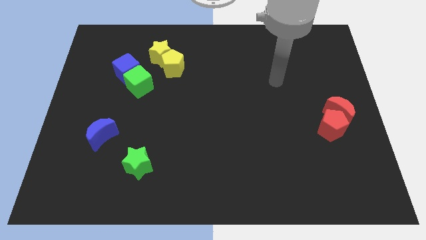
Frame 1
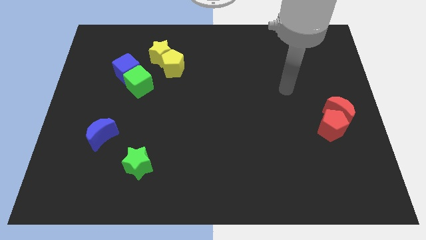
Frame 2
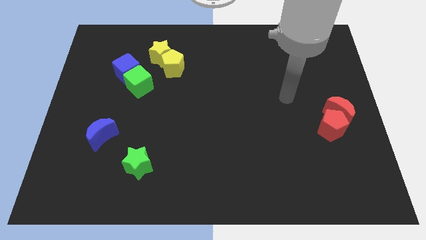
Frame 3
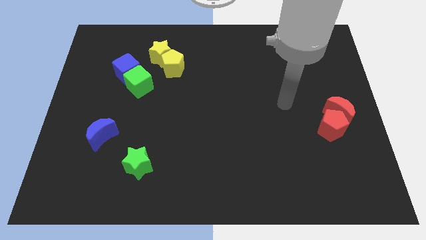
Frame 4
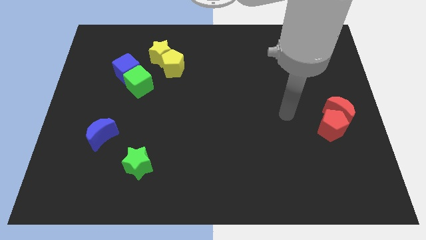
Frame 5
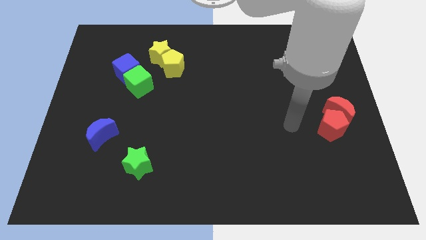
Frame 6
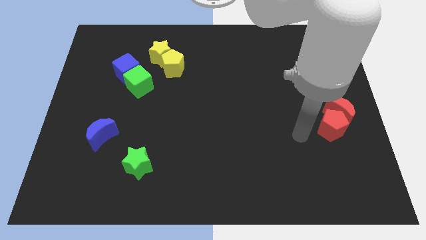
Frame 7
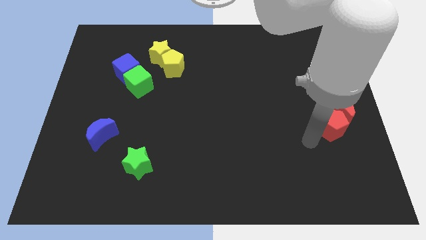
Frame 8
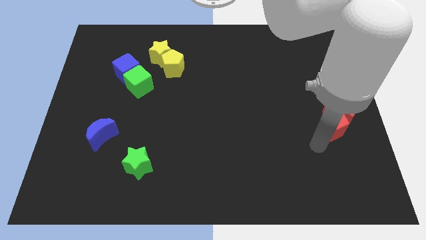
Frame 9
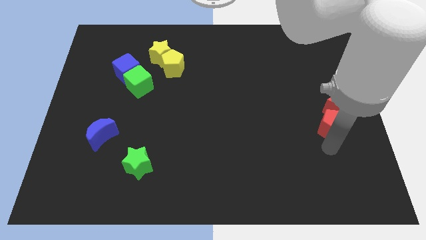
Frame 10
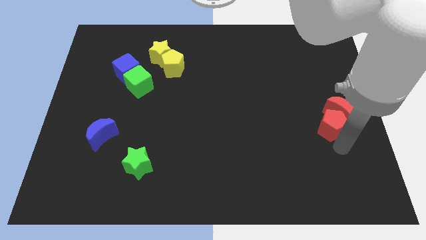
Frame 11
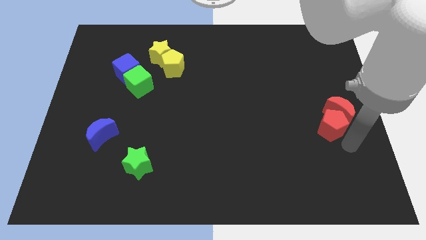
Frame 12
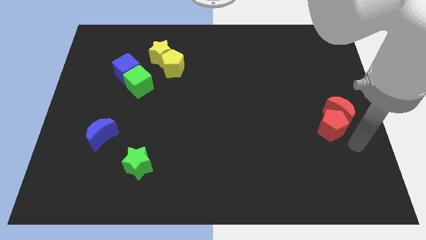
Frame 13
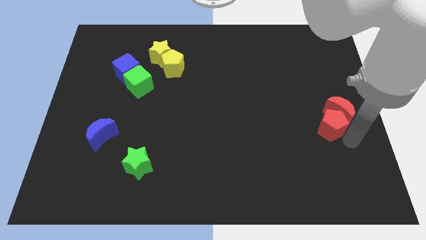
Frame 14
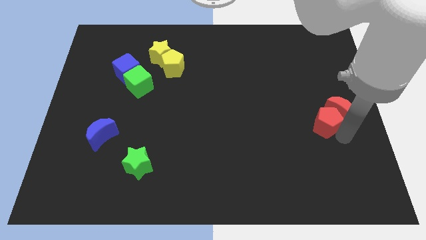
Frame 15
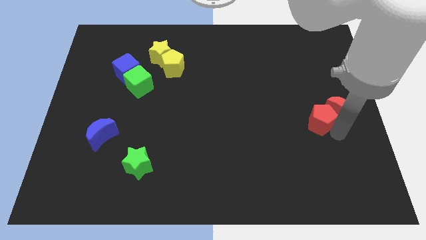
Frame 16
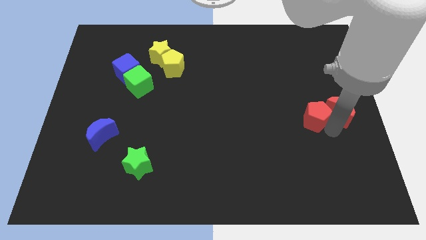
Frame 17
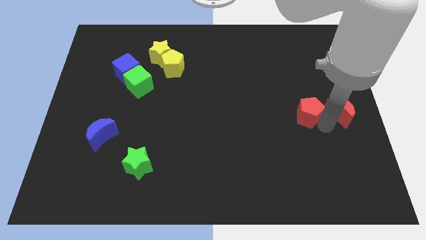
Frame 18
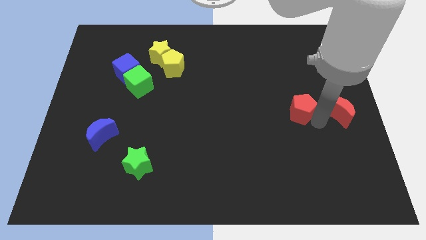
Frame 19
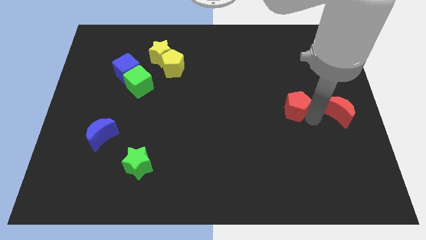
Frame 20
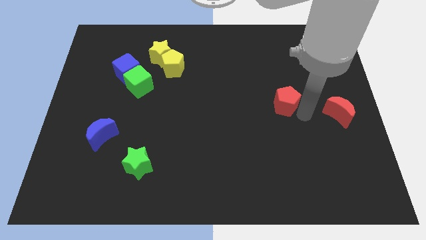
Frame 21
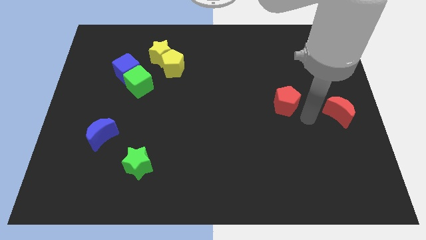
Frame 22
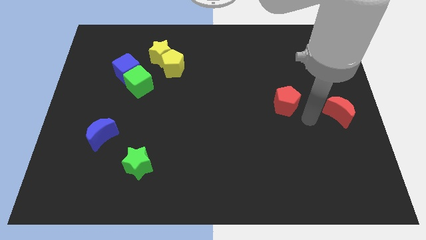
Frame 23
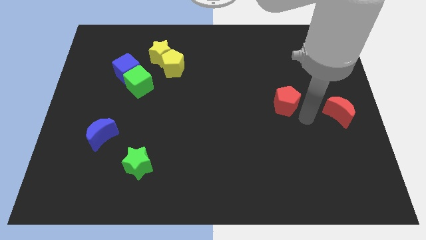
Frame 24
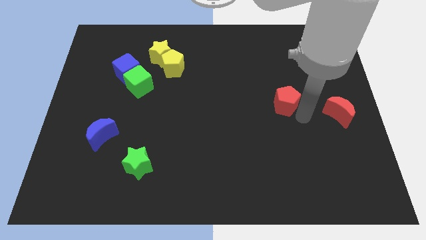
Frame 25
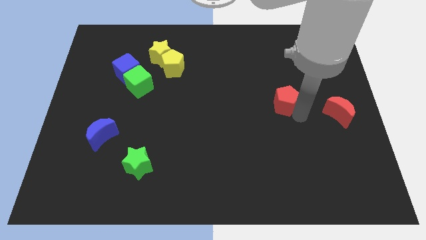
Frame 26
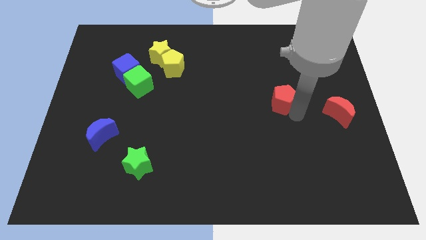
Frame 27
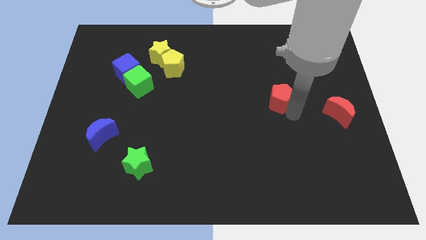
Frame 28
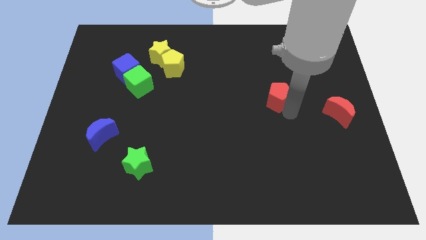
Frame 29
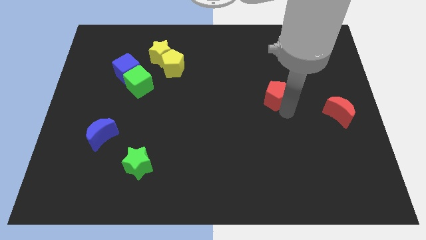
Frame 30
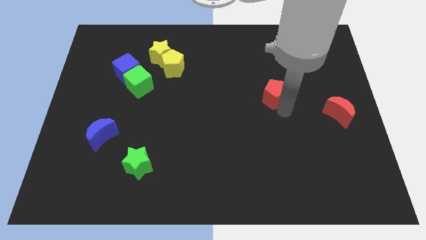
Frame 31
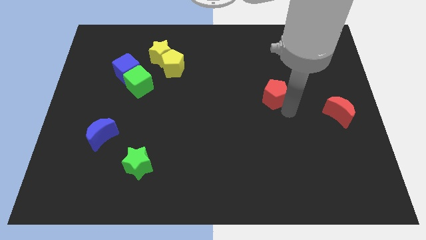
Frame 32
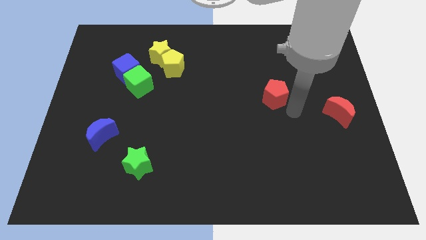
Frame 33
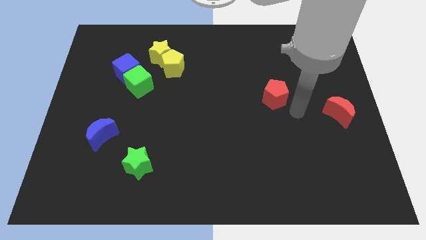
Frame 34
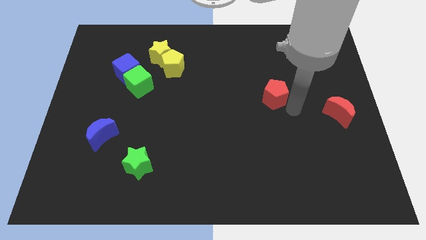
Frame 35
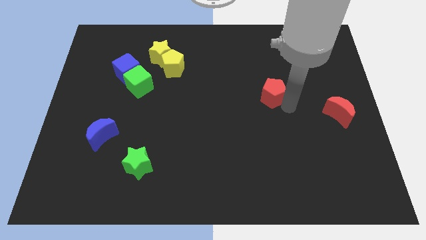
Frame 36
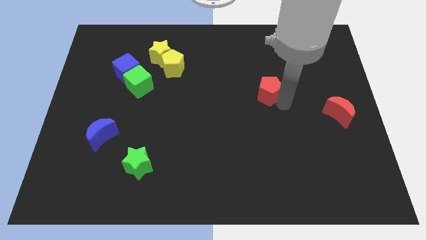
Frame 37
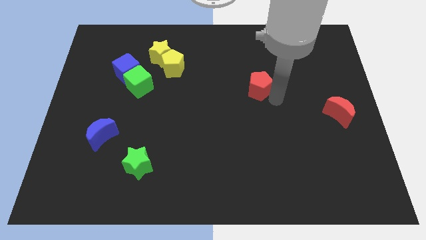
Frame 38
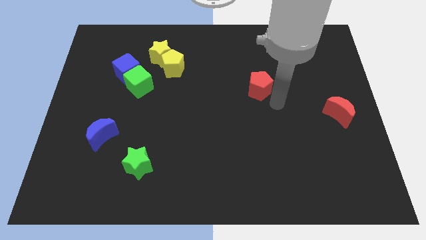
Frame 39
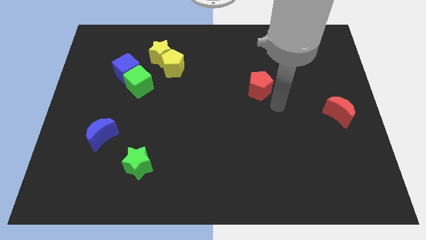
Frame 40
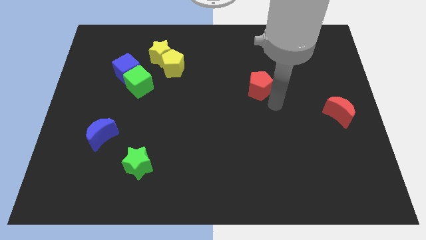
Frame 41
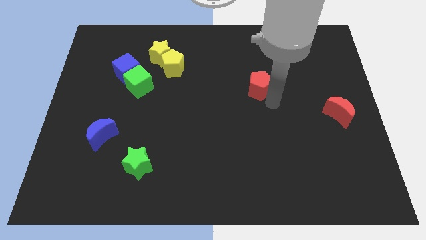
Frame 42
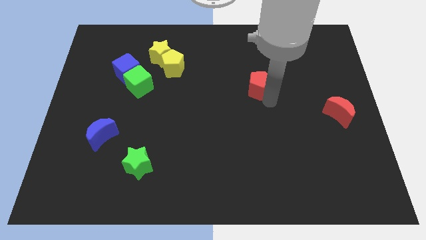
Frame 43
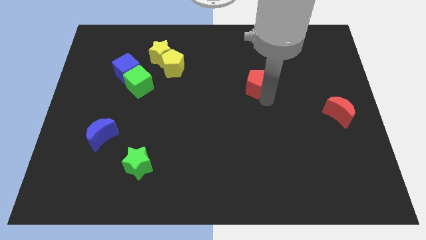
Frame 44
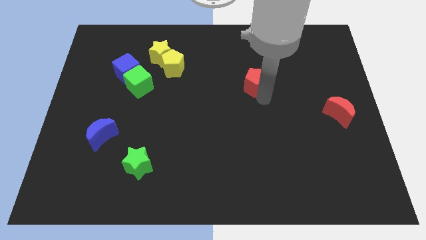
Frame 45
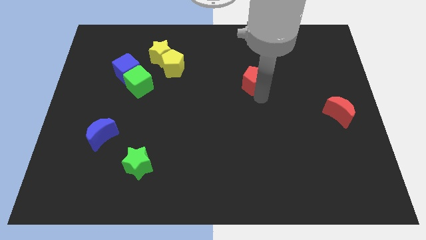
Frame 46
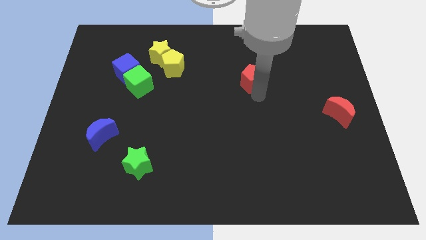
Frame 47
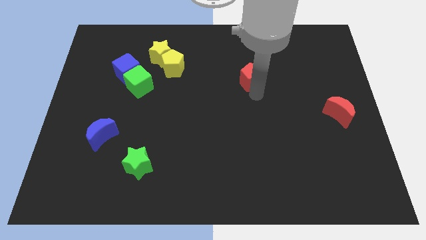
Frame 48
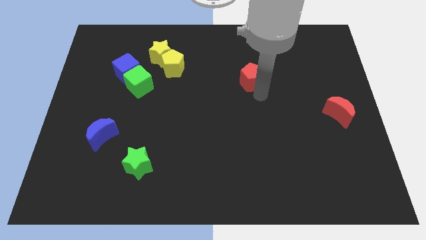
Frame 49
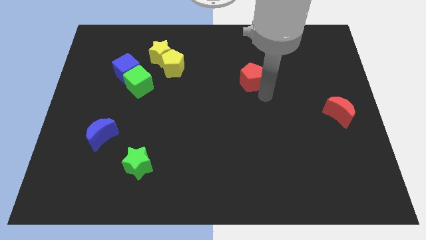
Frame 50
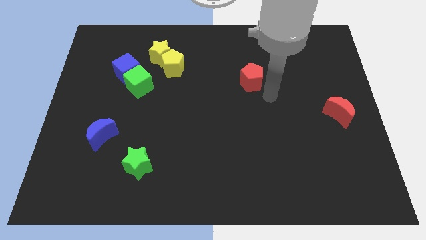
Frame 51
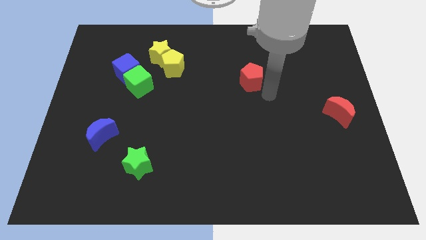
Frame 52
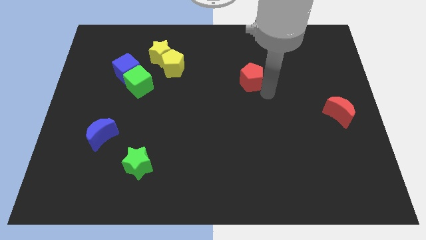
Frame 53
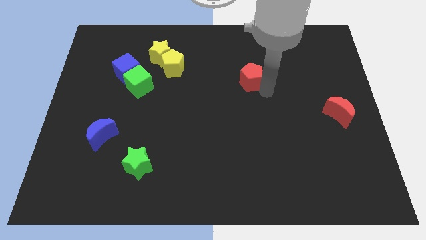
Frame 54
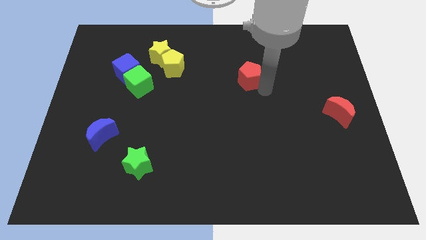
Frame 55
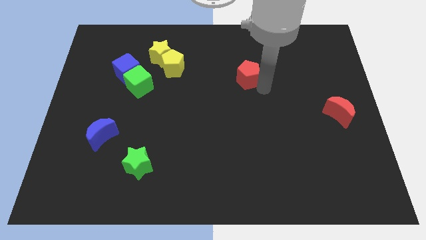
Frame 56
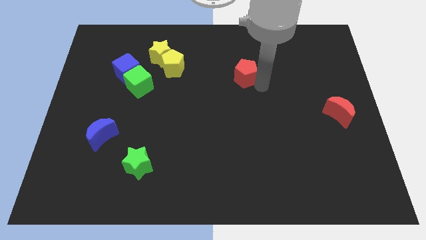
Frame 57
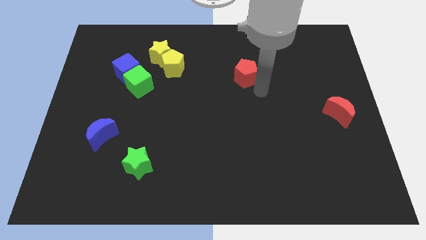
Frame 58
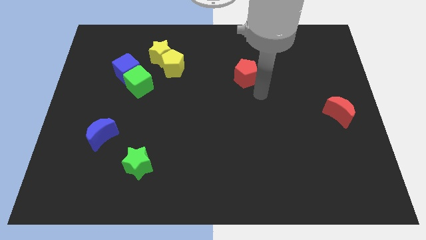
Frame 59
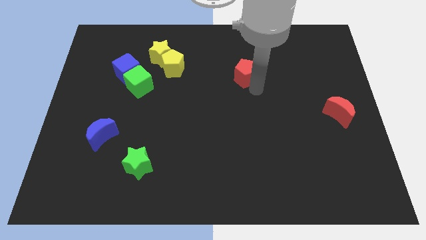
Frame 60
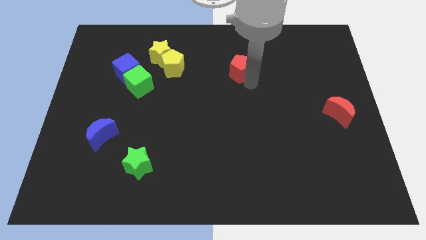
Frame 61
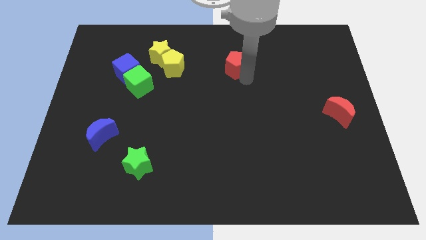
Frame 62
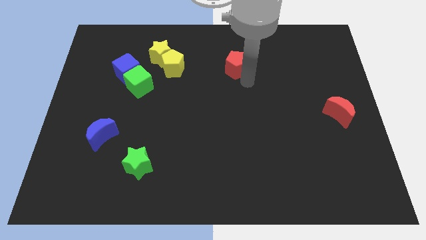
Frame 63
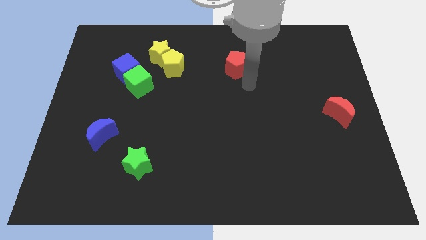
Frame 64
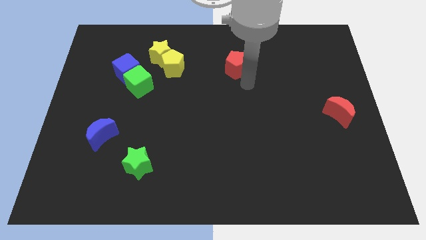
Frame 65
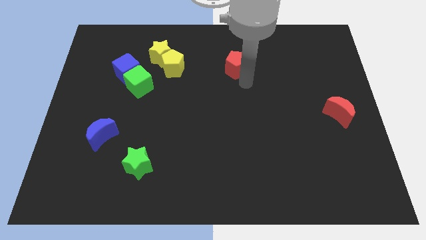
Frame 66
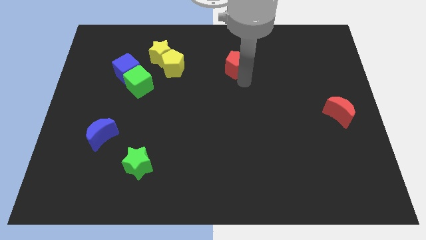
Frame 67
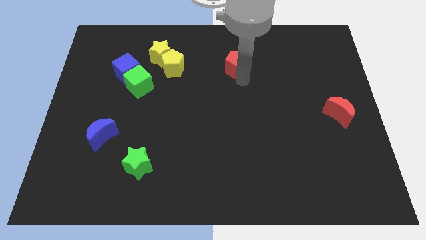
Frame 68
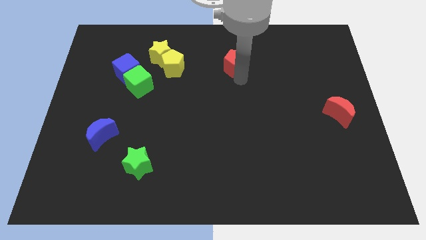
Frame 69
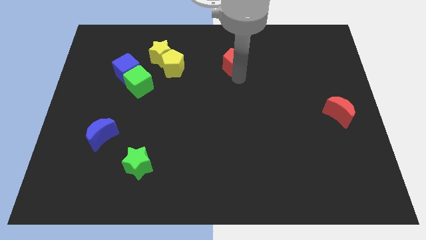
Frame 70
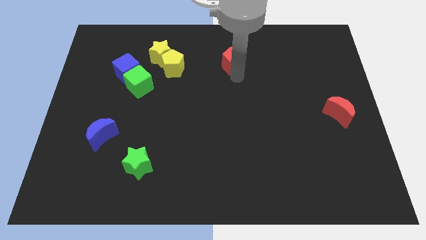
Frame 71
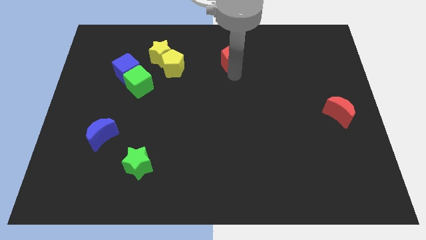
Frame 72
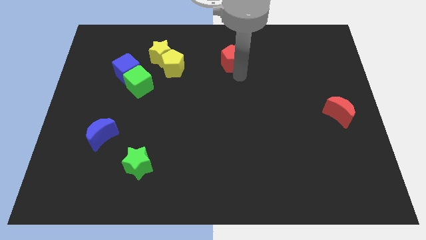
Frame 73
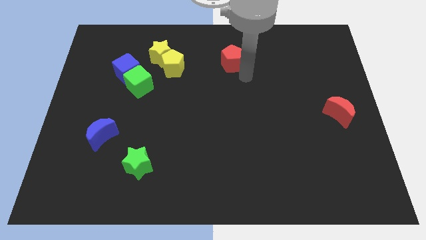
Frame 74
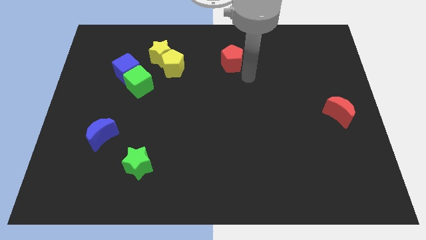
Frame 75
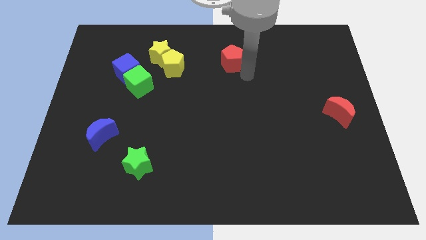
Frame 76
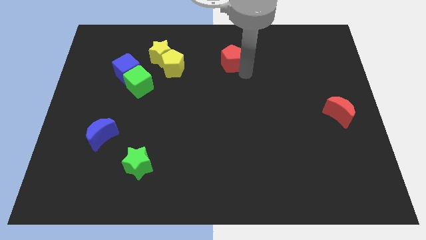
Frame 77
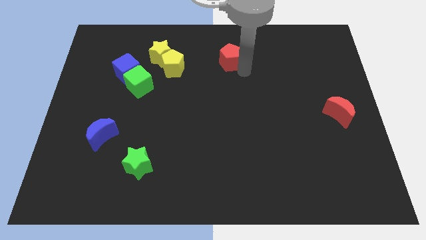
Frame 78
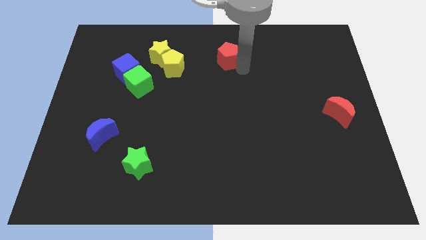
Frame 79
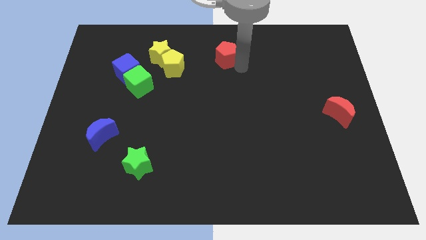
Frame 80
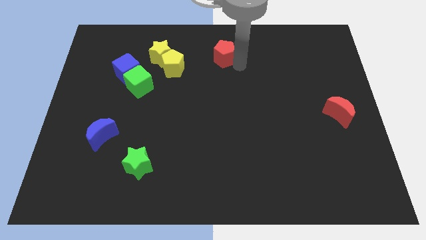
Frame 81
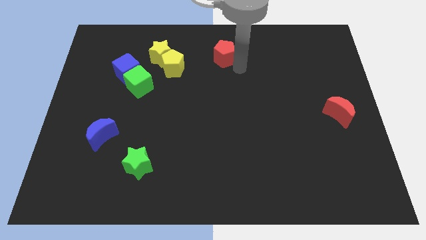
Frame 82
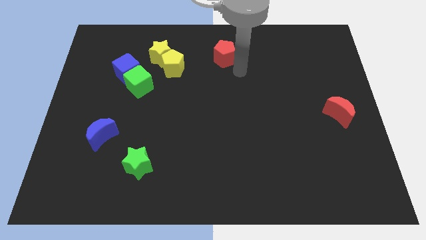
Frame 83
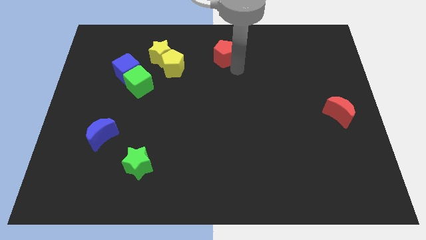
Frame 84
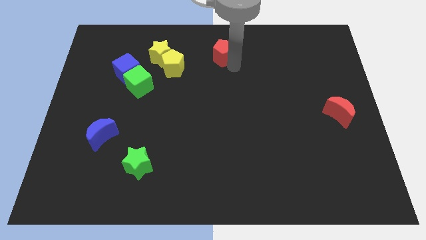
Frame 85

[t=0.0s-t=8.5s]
push the red pentagon to the top side
